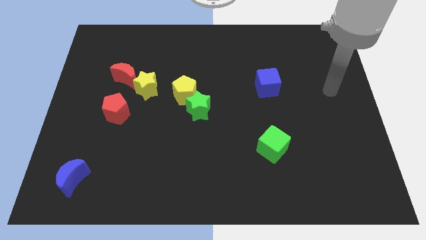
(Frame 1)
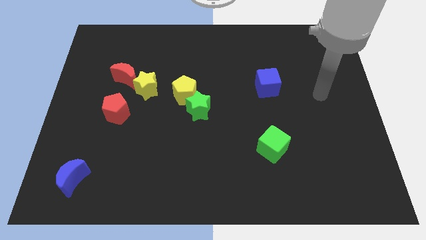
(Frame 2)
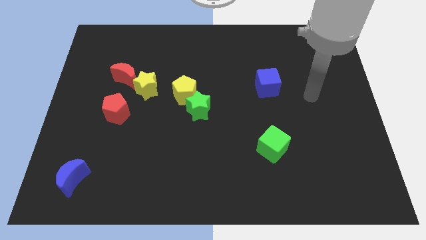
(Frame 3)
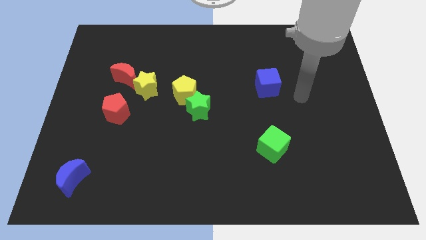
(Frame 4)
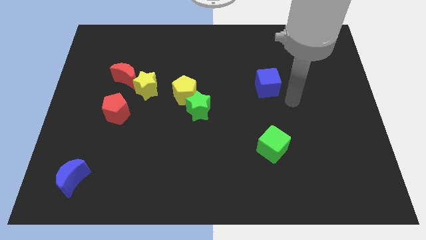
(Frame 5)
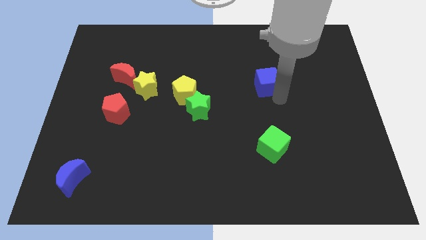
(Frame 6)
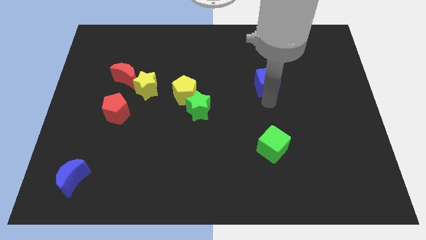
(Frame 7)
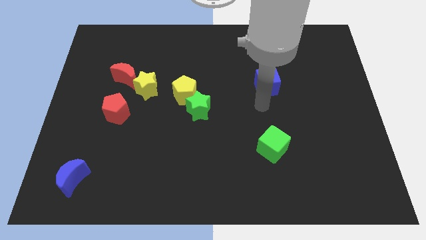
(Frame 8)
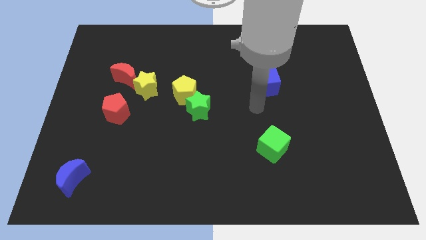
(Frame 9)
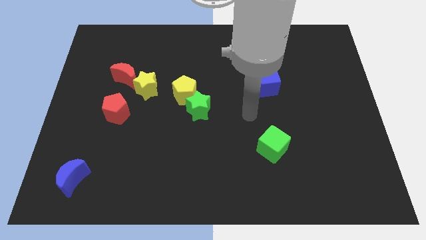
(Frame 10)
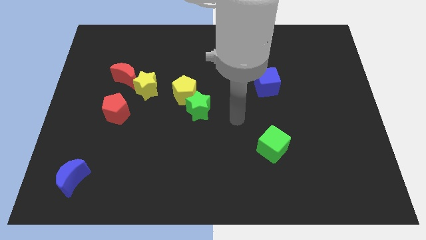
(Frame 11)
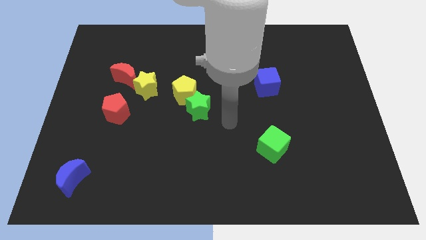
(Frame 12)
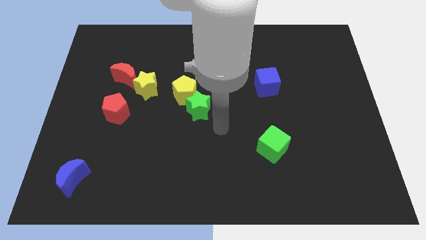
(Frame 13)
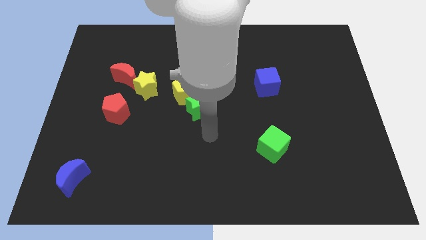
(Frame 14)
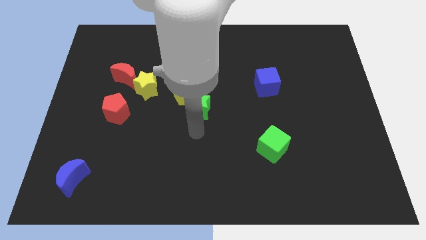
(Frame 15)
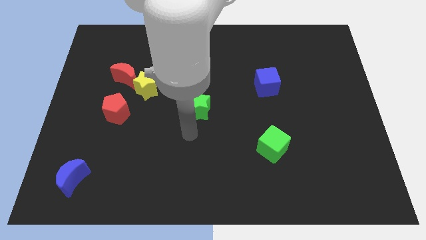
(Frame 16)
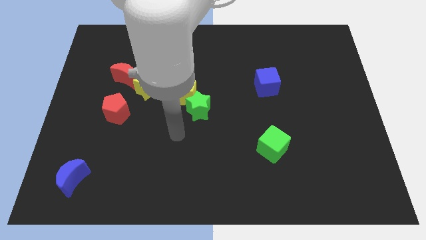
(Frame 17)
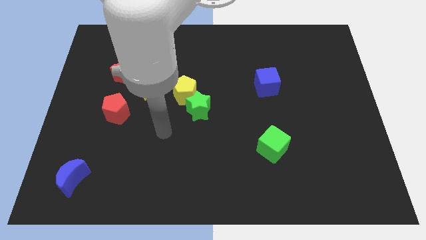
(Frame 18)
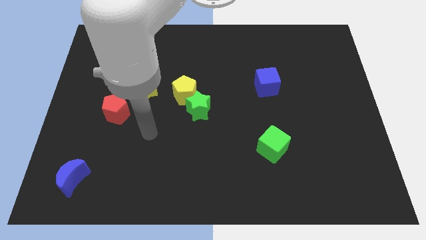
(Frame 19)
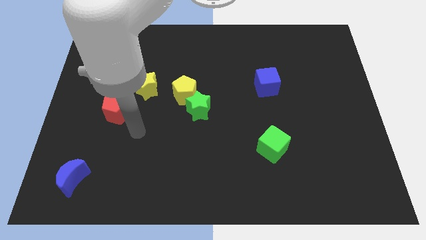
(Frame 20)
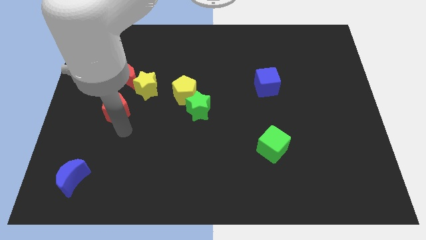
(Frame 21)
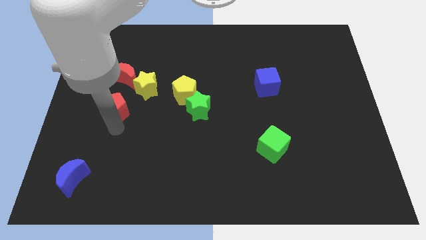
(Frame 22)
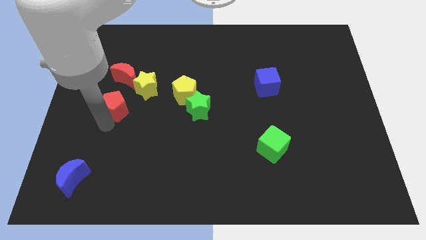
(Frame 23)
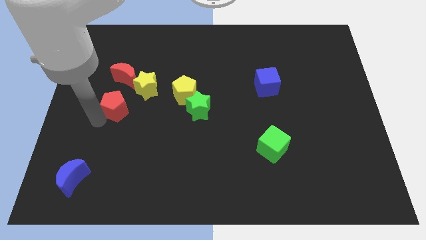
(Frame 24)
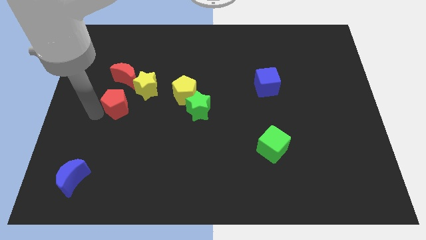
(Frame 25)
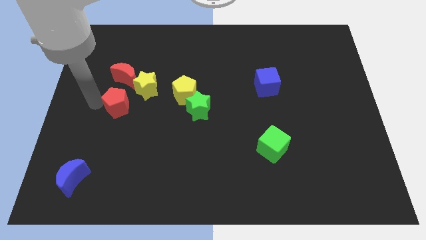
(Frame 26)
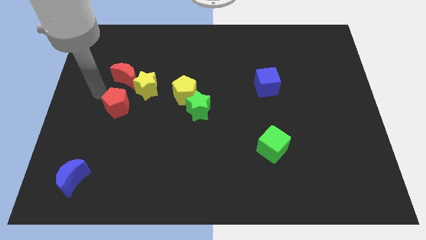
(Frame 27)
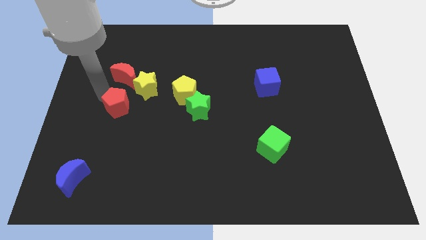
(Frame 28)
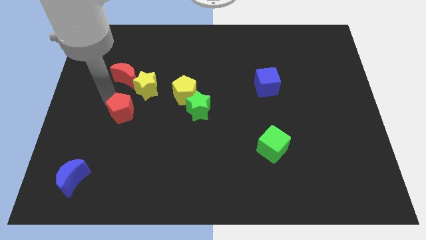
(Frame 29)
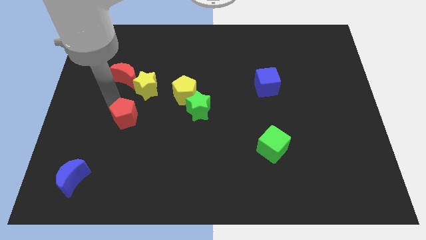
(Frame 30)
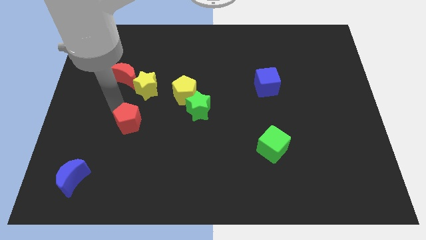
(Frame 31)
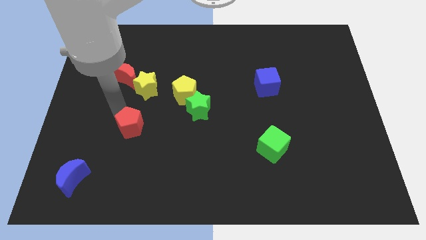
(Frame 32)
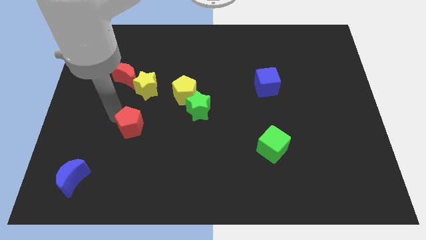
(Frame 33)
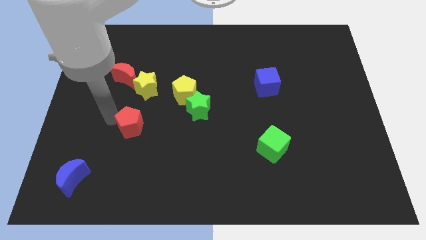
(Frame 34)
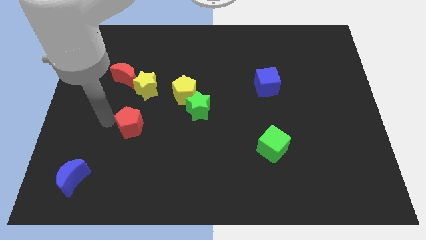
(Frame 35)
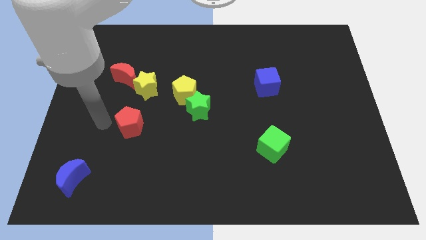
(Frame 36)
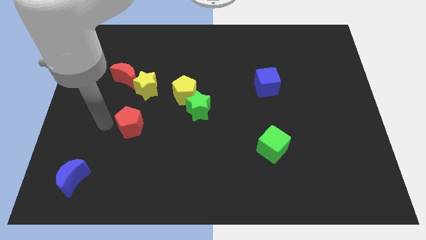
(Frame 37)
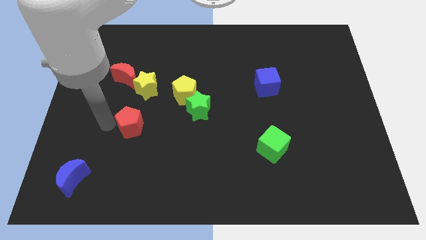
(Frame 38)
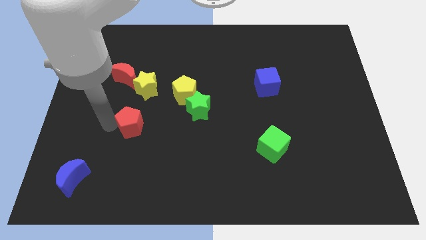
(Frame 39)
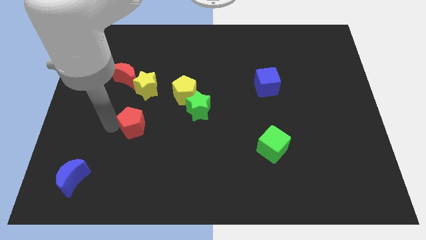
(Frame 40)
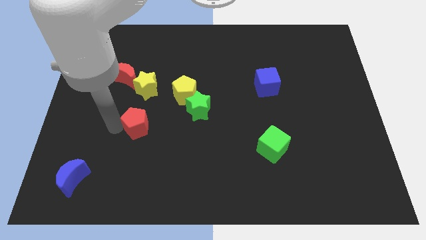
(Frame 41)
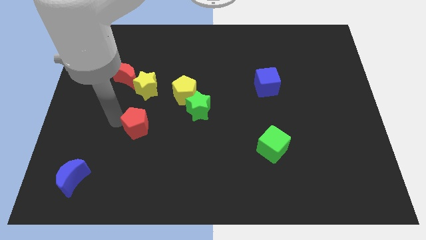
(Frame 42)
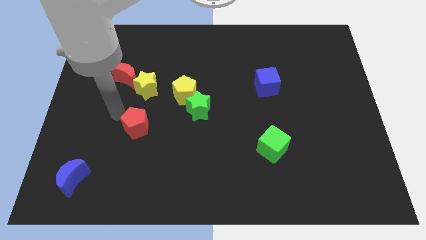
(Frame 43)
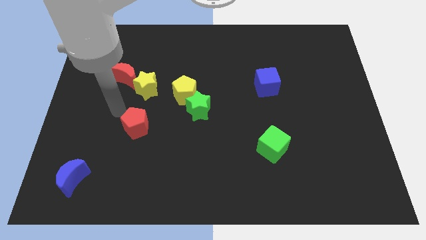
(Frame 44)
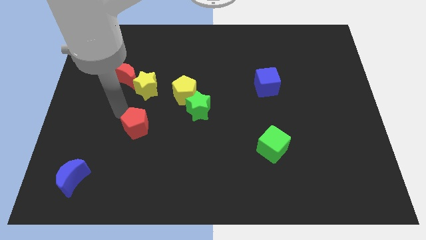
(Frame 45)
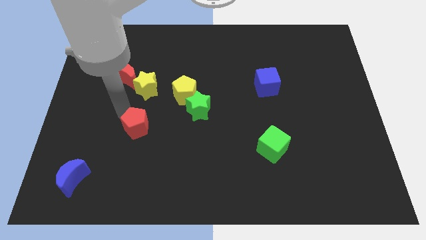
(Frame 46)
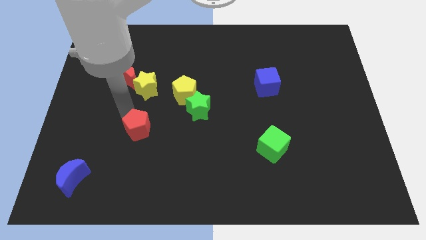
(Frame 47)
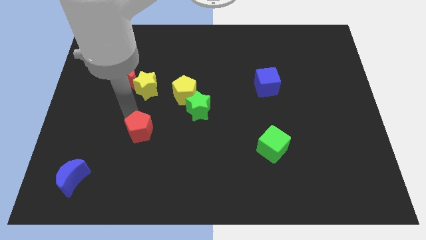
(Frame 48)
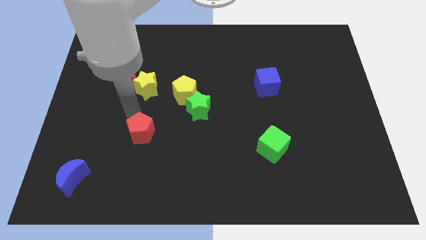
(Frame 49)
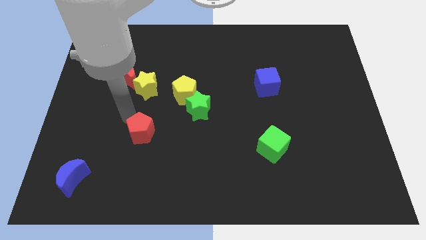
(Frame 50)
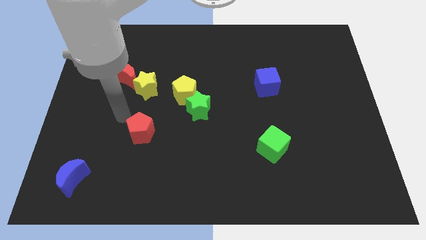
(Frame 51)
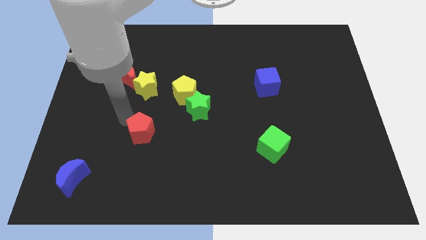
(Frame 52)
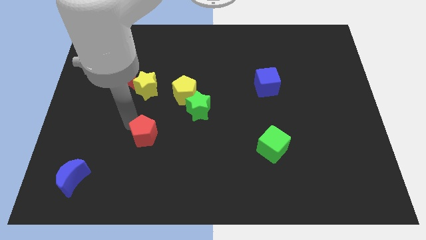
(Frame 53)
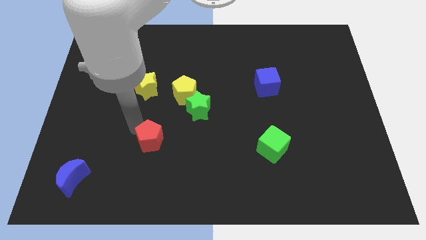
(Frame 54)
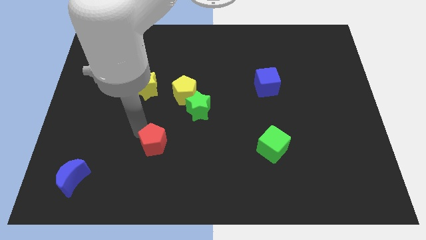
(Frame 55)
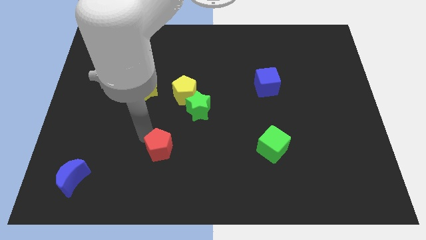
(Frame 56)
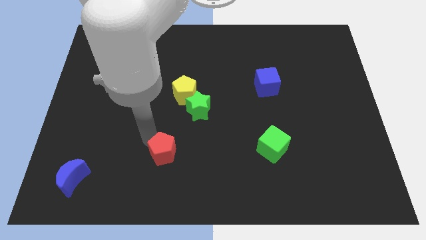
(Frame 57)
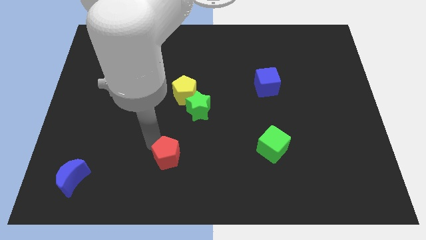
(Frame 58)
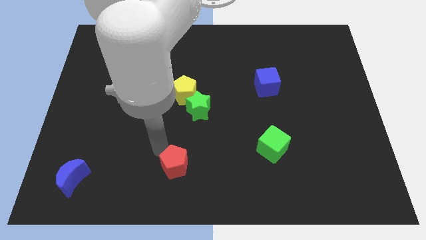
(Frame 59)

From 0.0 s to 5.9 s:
put the red pentagon to the bottom side
